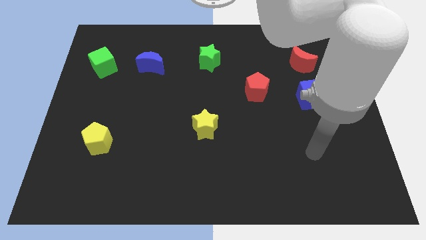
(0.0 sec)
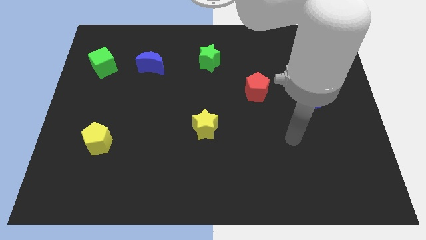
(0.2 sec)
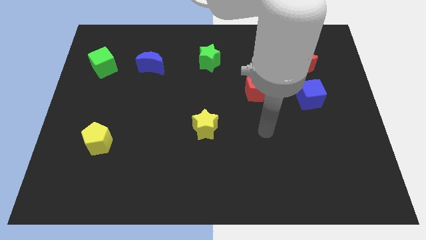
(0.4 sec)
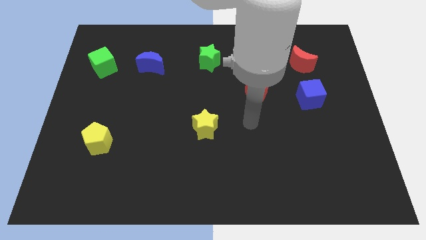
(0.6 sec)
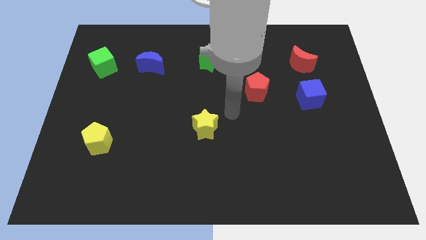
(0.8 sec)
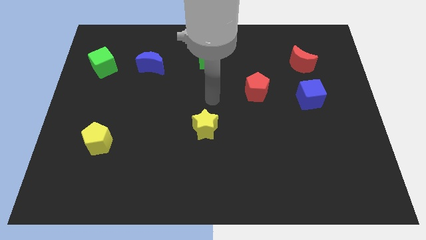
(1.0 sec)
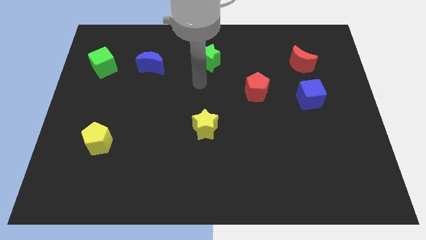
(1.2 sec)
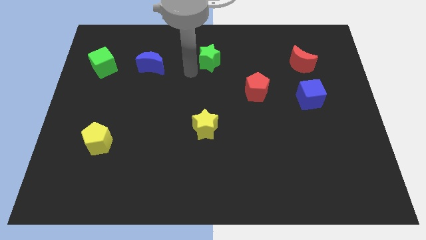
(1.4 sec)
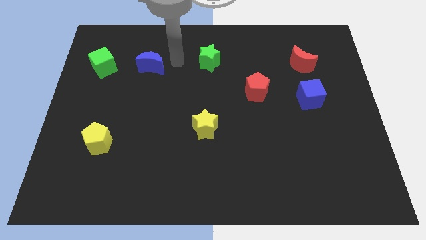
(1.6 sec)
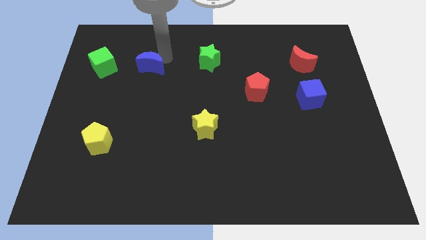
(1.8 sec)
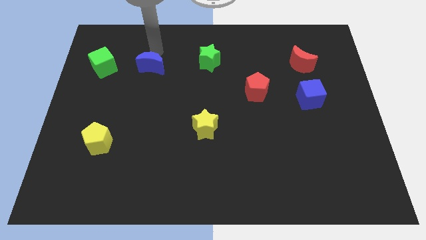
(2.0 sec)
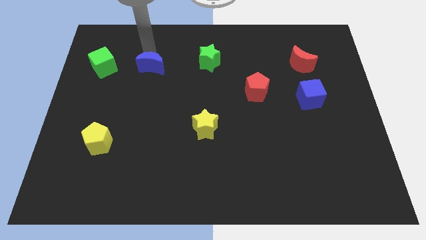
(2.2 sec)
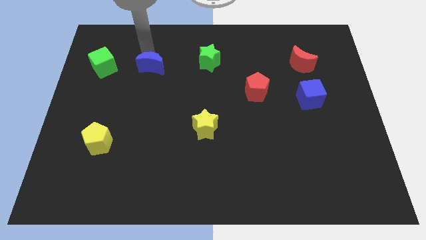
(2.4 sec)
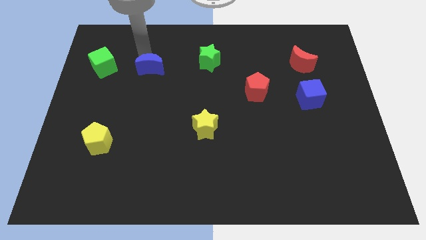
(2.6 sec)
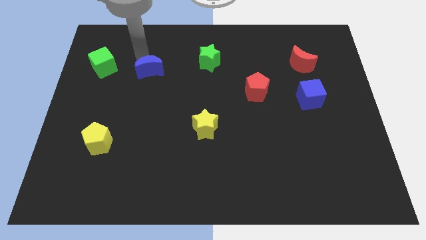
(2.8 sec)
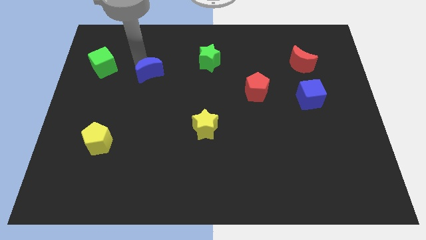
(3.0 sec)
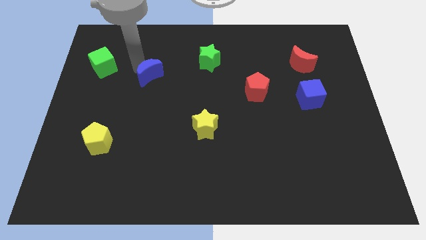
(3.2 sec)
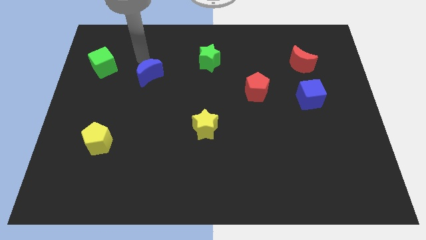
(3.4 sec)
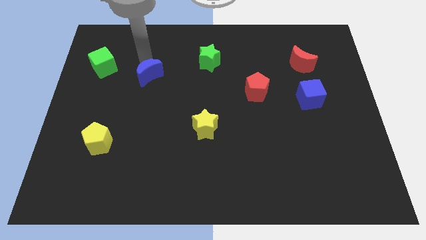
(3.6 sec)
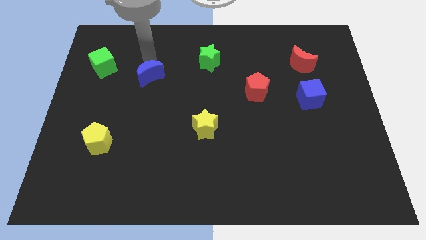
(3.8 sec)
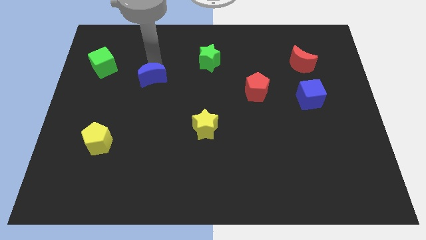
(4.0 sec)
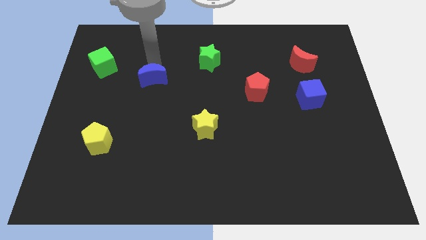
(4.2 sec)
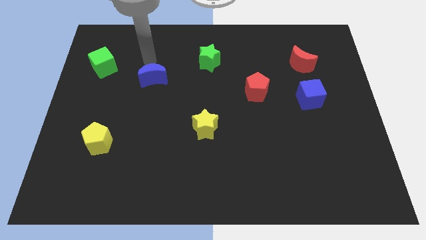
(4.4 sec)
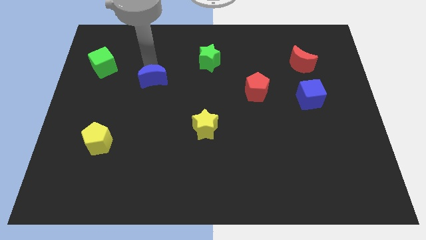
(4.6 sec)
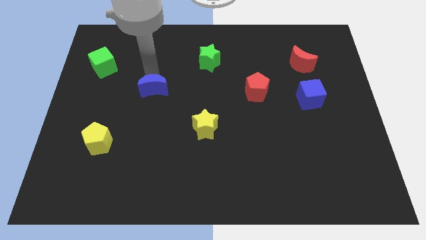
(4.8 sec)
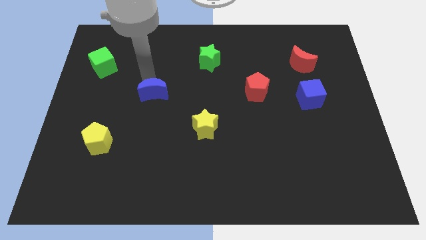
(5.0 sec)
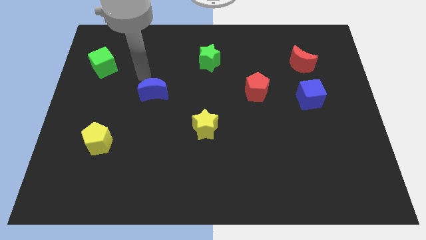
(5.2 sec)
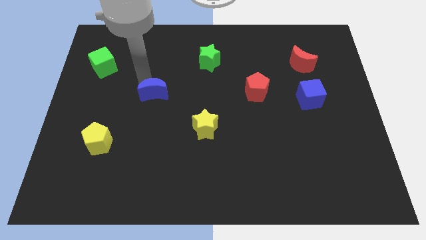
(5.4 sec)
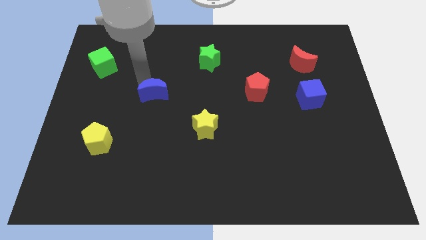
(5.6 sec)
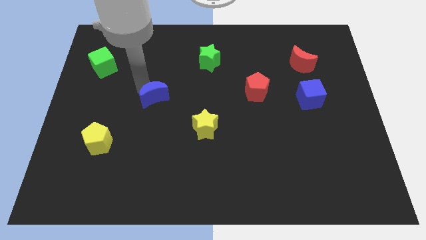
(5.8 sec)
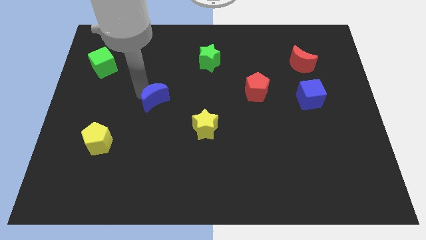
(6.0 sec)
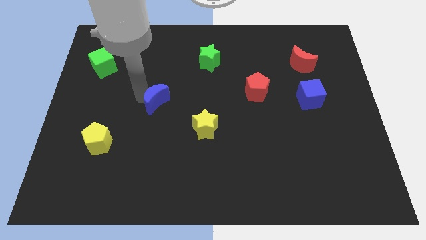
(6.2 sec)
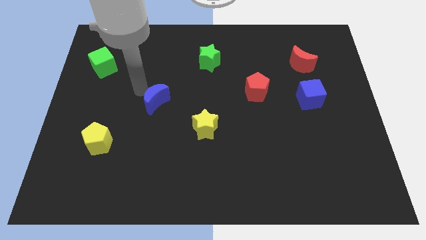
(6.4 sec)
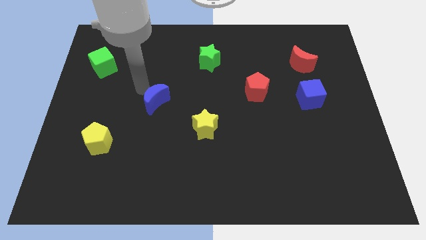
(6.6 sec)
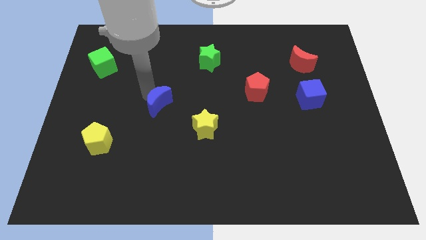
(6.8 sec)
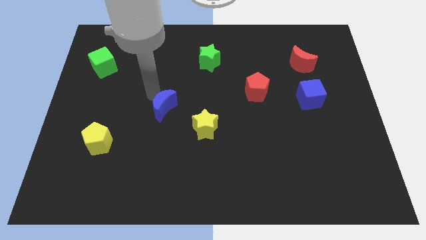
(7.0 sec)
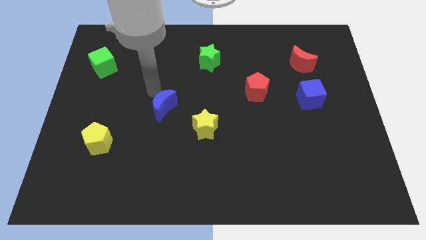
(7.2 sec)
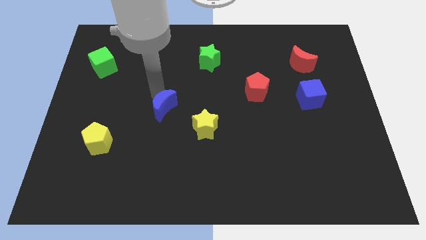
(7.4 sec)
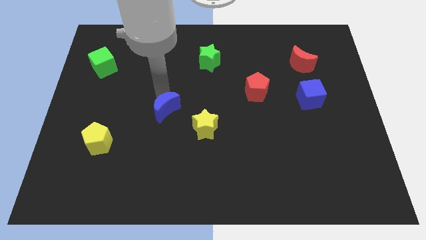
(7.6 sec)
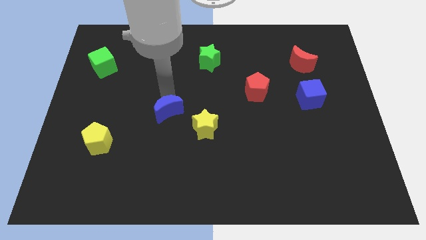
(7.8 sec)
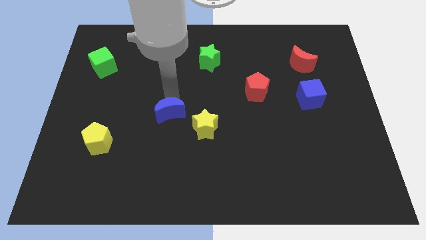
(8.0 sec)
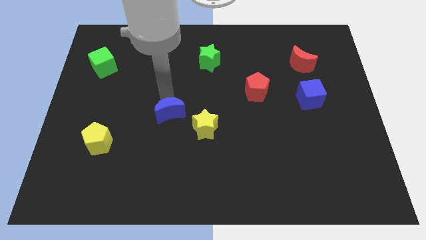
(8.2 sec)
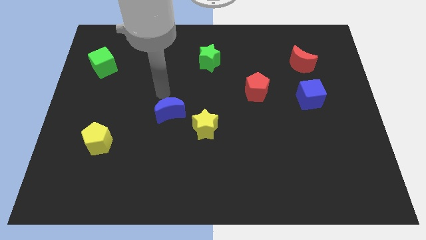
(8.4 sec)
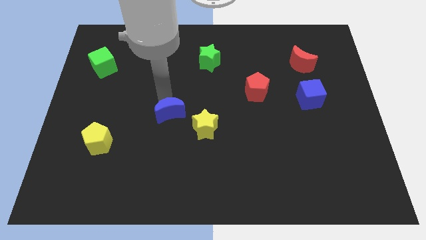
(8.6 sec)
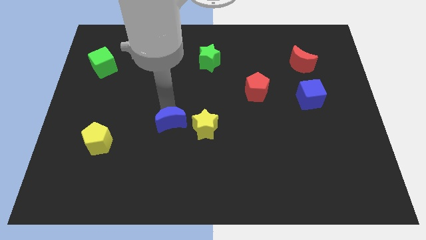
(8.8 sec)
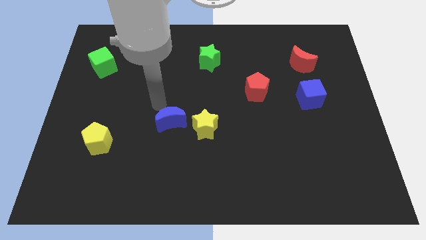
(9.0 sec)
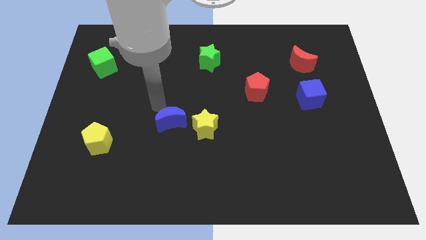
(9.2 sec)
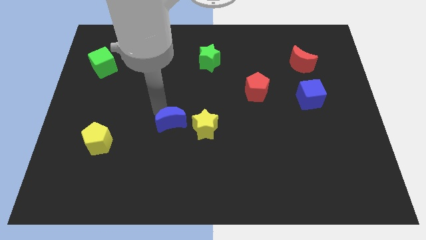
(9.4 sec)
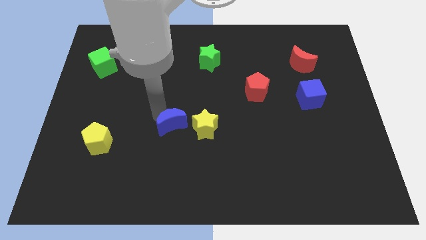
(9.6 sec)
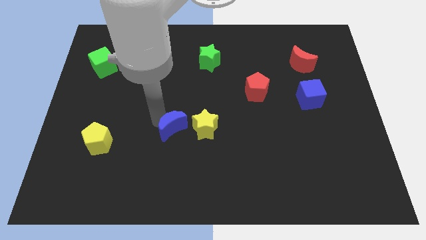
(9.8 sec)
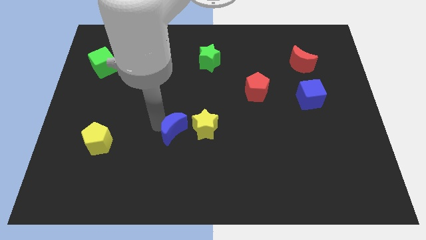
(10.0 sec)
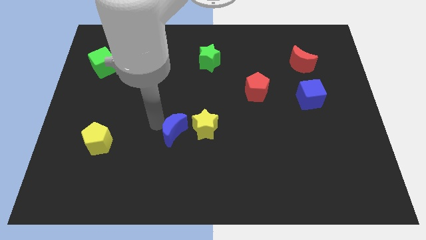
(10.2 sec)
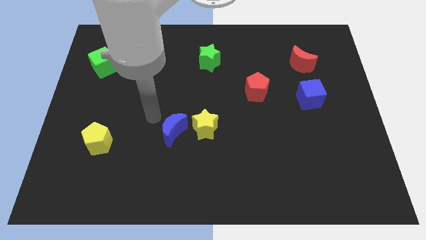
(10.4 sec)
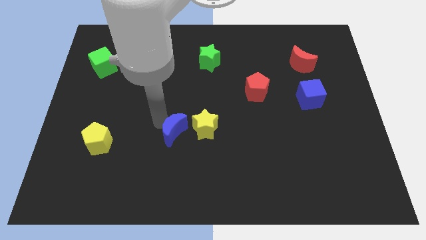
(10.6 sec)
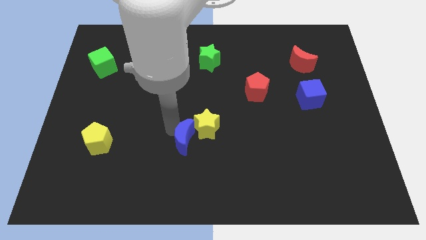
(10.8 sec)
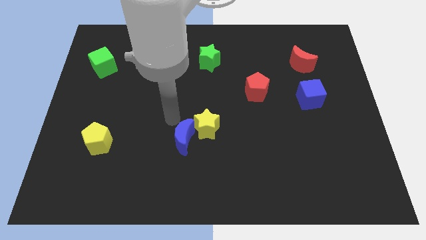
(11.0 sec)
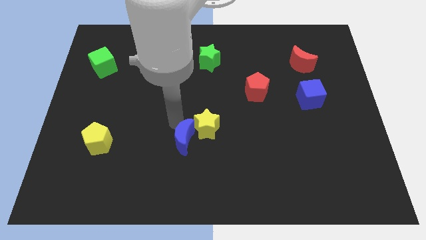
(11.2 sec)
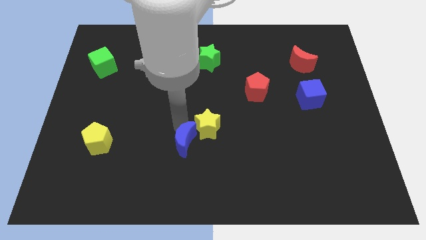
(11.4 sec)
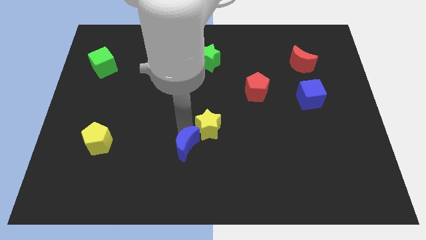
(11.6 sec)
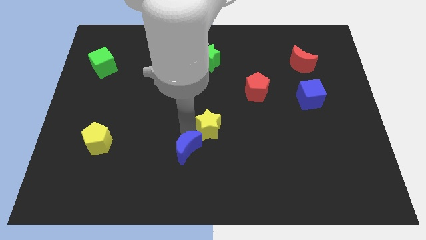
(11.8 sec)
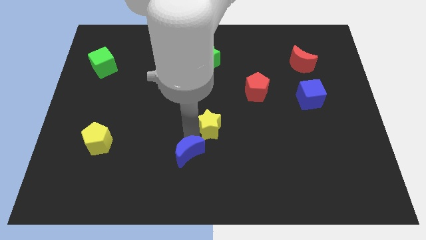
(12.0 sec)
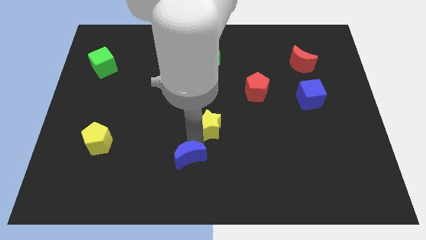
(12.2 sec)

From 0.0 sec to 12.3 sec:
push the blue moon to the bottom

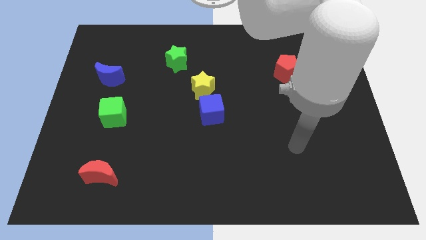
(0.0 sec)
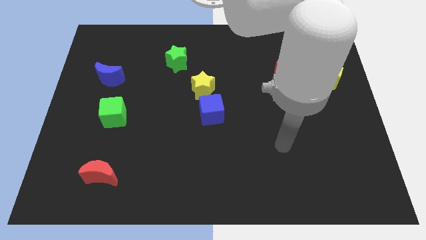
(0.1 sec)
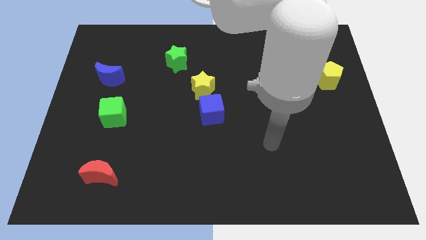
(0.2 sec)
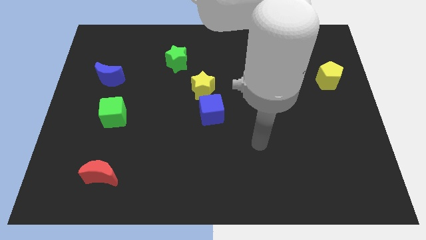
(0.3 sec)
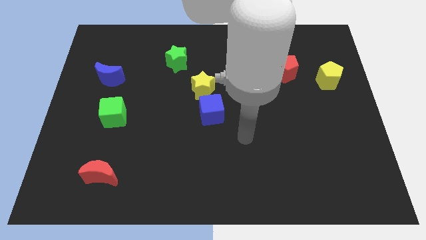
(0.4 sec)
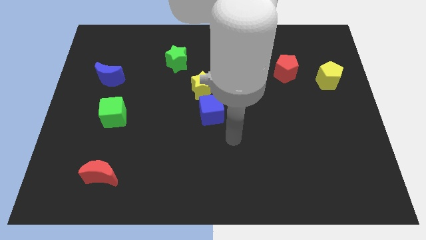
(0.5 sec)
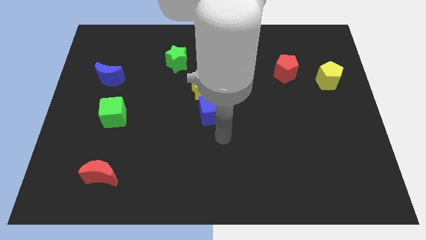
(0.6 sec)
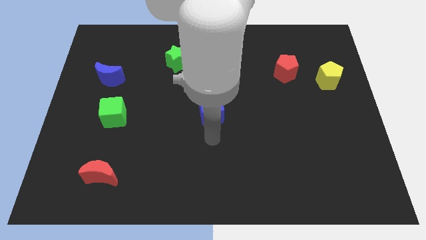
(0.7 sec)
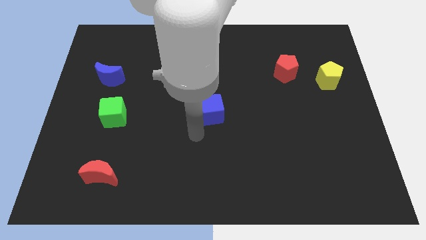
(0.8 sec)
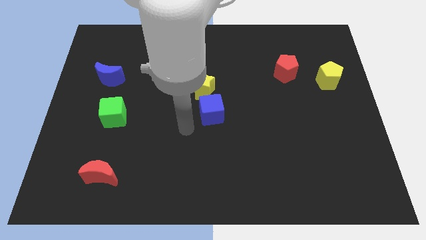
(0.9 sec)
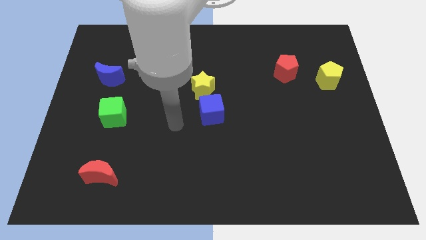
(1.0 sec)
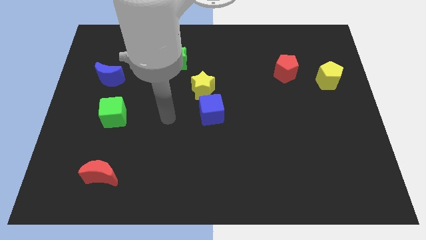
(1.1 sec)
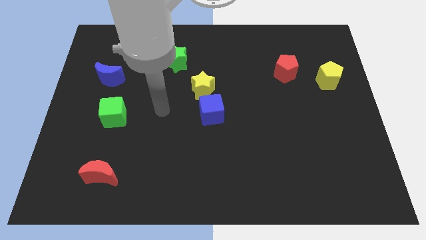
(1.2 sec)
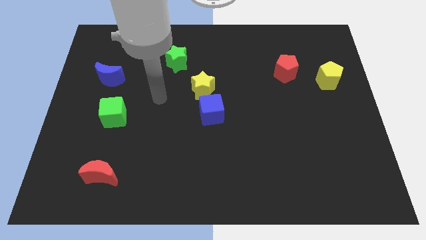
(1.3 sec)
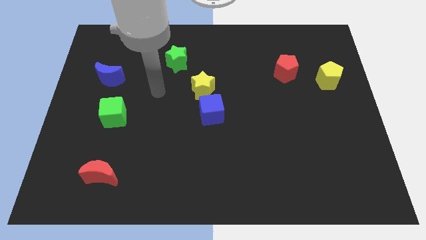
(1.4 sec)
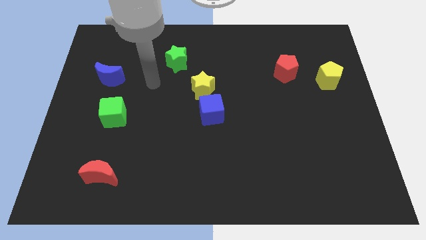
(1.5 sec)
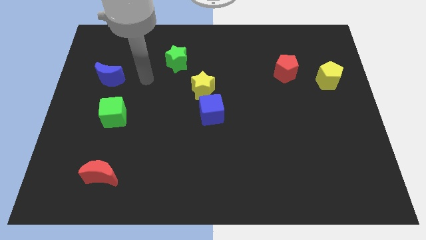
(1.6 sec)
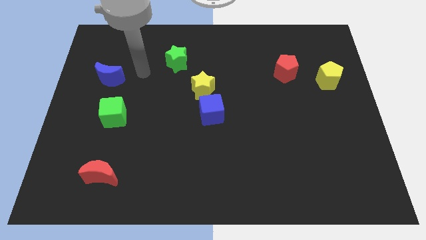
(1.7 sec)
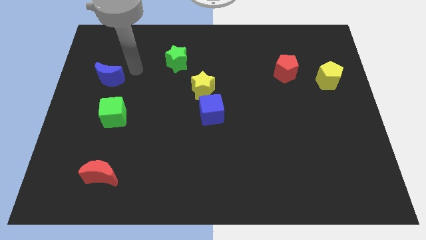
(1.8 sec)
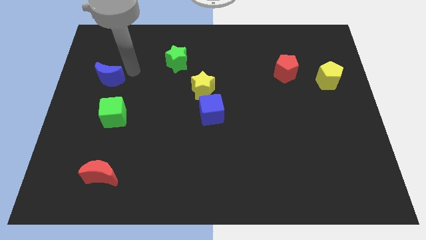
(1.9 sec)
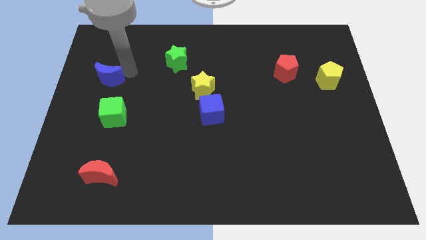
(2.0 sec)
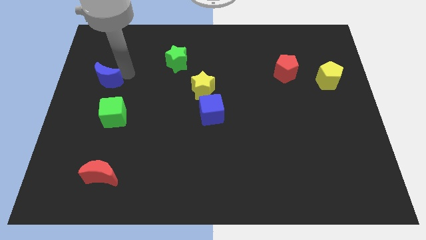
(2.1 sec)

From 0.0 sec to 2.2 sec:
slide the blue moon to the left side of the board
